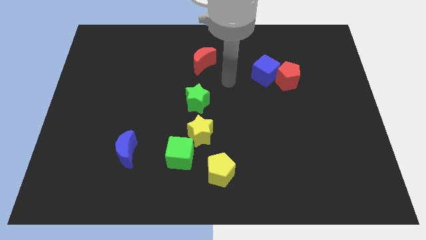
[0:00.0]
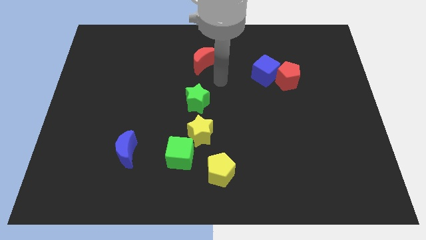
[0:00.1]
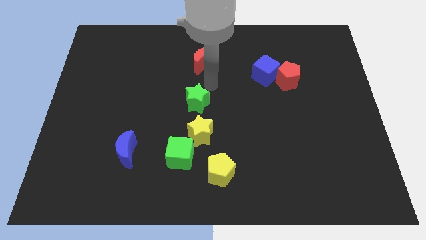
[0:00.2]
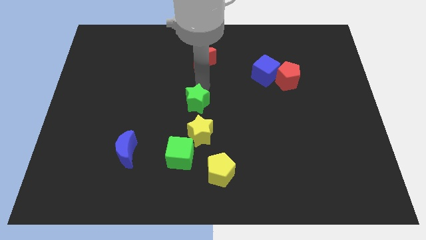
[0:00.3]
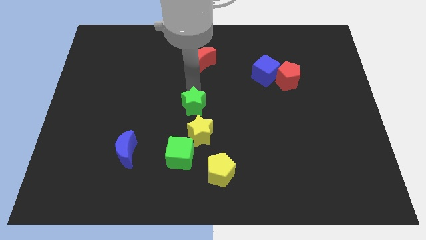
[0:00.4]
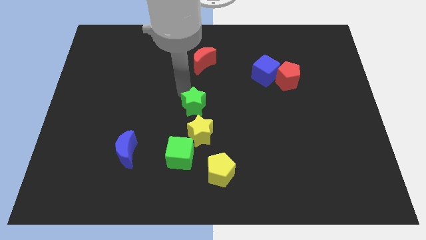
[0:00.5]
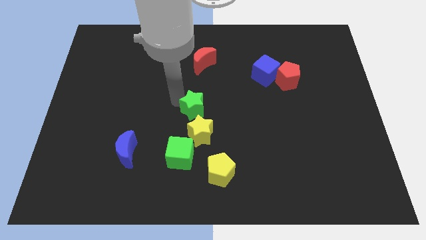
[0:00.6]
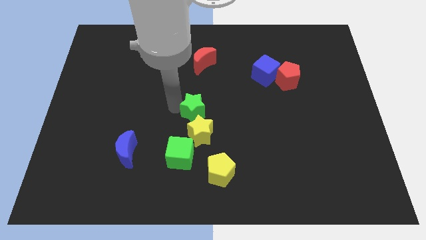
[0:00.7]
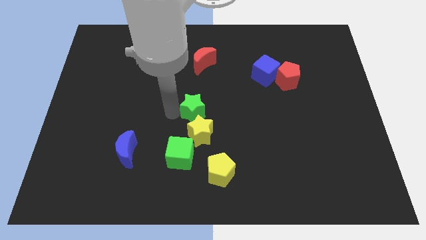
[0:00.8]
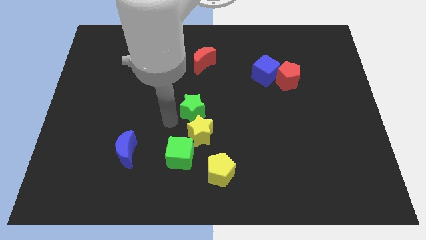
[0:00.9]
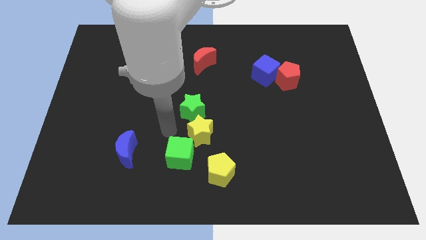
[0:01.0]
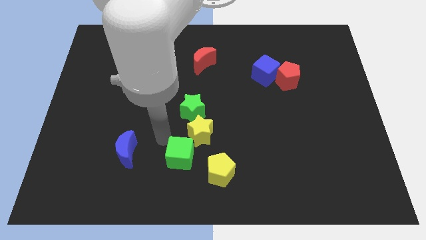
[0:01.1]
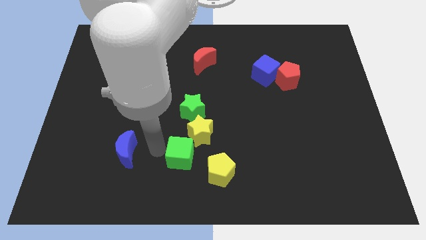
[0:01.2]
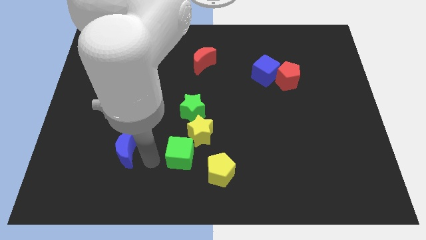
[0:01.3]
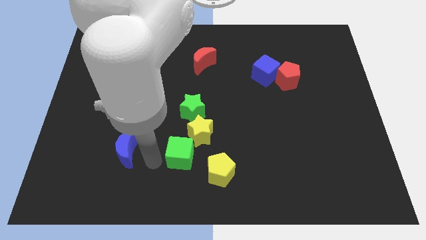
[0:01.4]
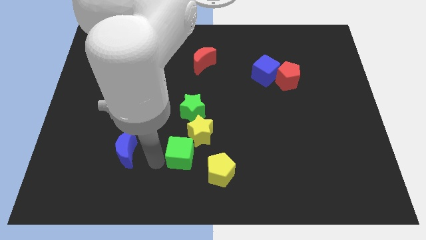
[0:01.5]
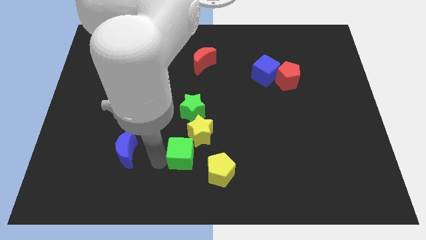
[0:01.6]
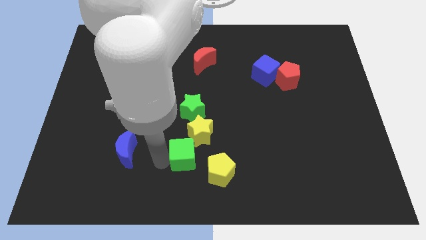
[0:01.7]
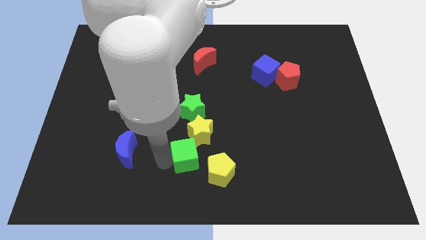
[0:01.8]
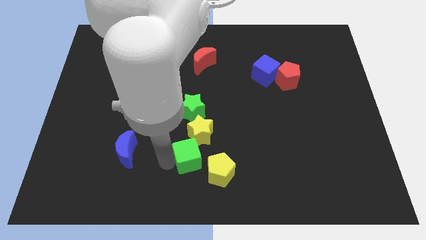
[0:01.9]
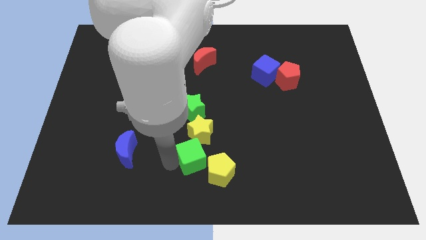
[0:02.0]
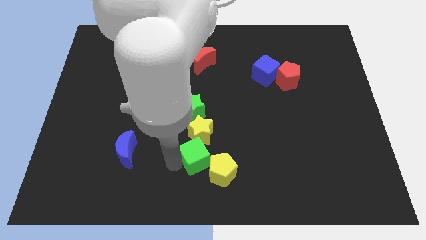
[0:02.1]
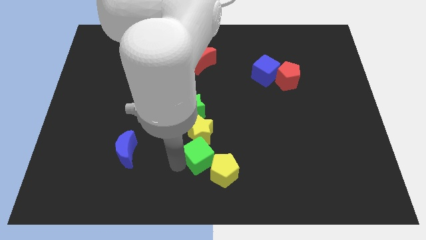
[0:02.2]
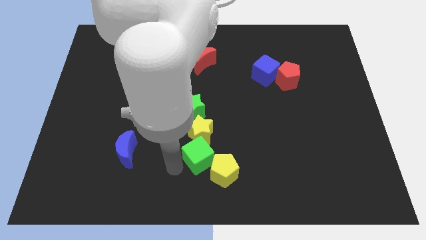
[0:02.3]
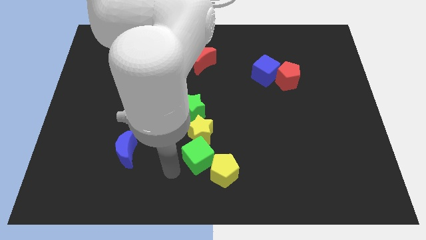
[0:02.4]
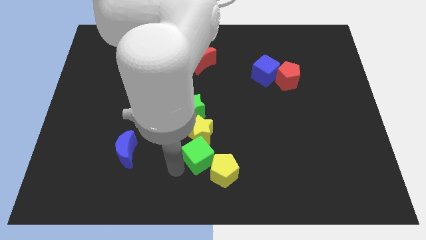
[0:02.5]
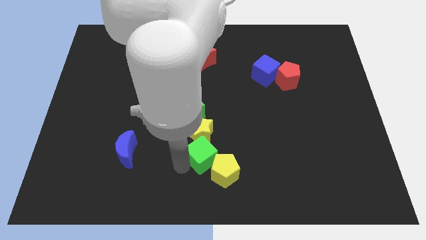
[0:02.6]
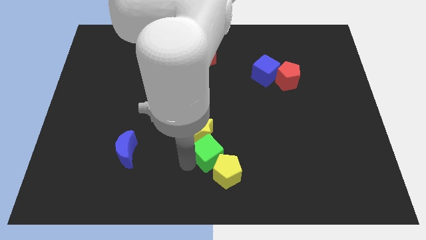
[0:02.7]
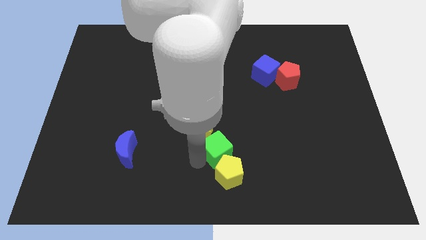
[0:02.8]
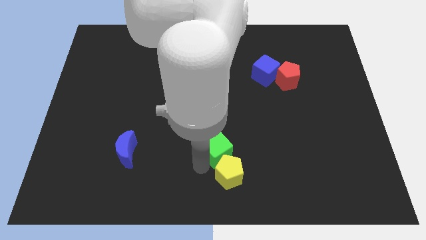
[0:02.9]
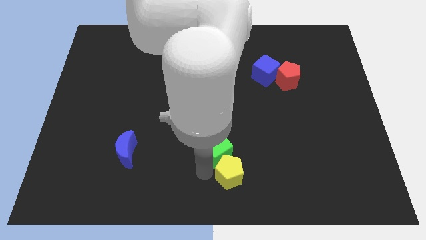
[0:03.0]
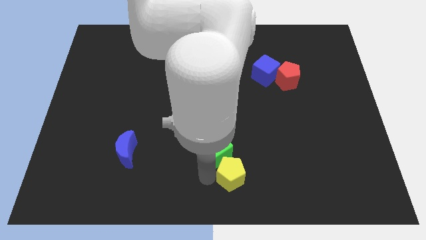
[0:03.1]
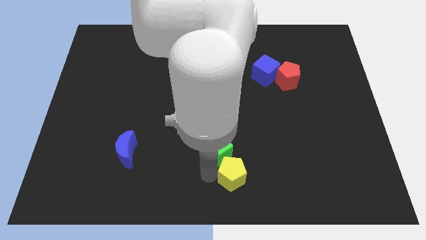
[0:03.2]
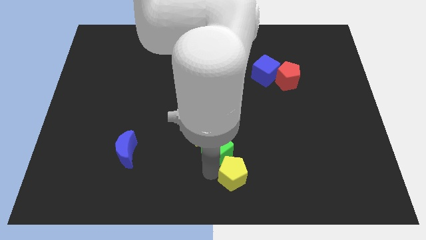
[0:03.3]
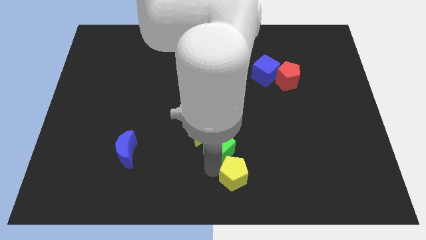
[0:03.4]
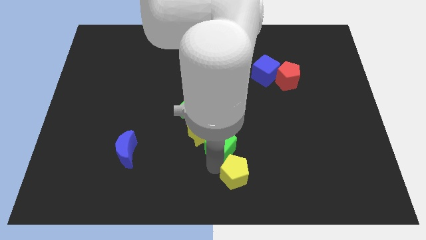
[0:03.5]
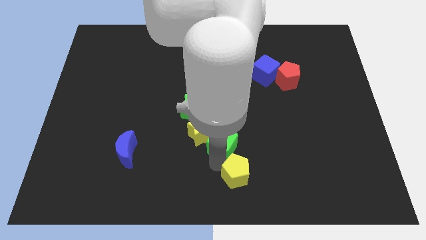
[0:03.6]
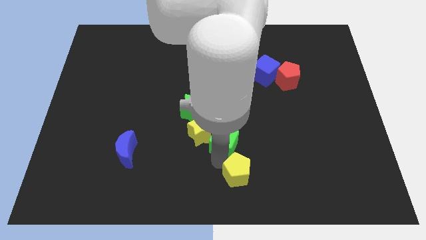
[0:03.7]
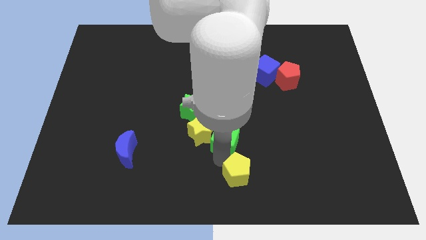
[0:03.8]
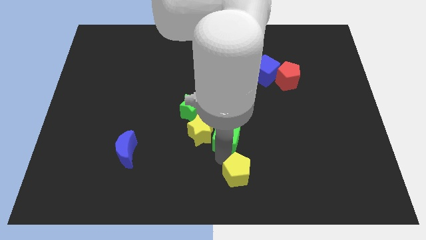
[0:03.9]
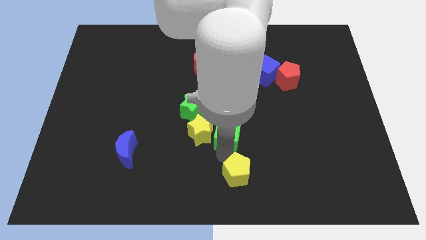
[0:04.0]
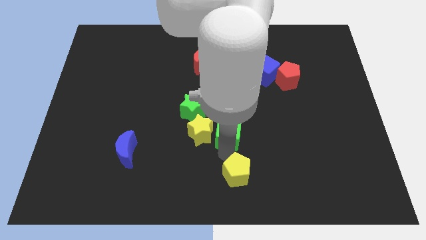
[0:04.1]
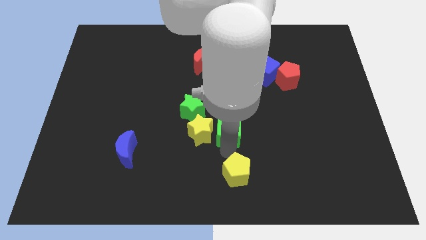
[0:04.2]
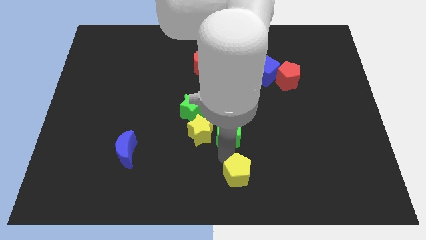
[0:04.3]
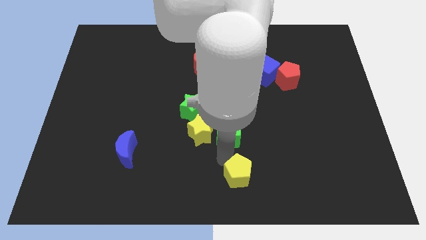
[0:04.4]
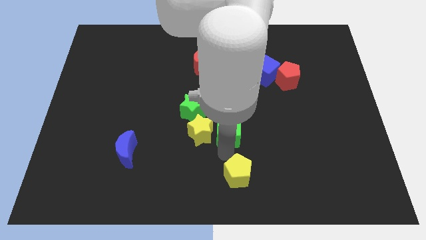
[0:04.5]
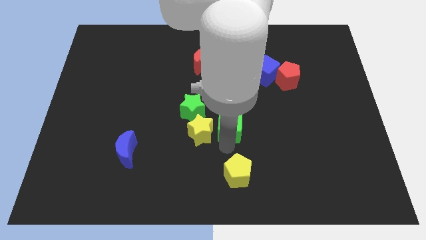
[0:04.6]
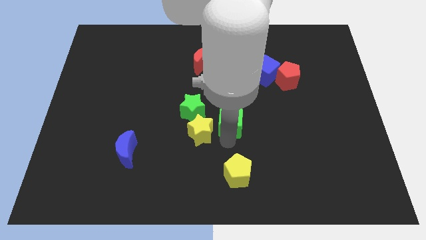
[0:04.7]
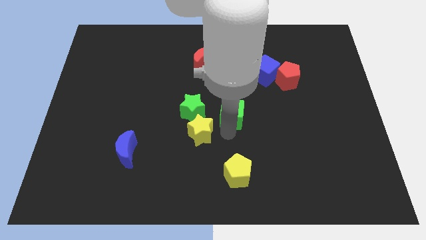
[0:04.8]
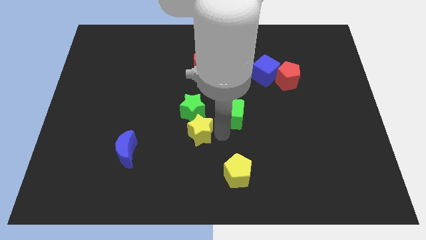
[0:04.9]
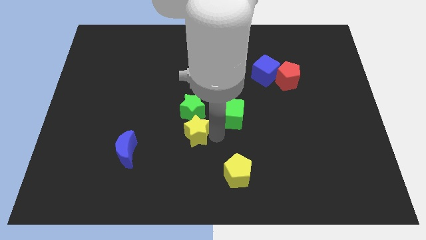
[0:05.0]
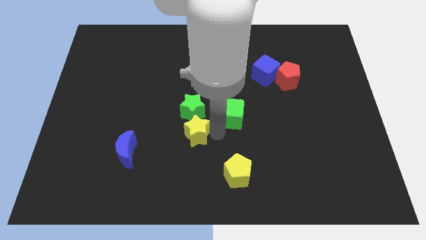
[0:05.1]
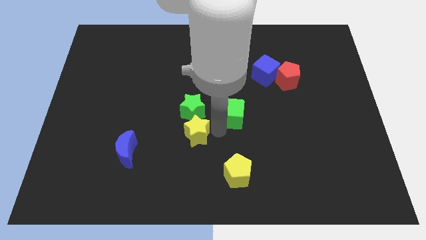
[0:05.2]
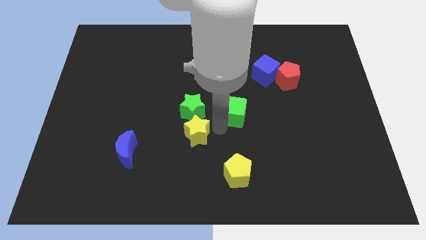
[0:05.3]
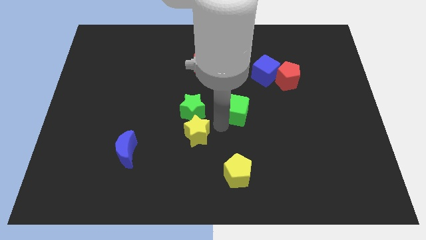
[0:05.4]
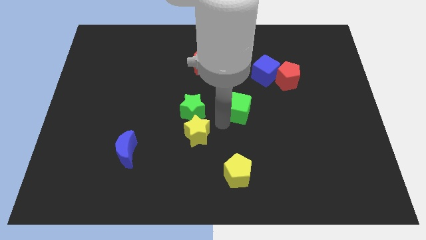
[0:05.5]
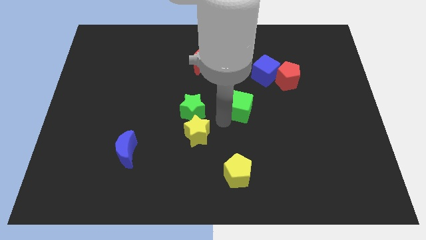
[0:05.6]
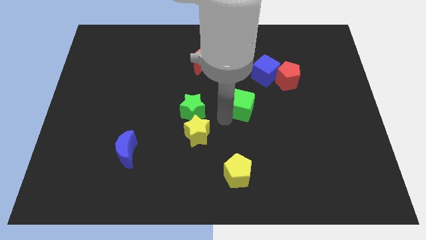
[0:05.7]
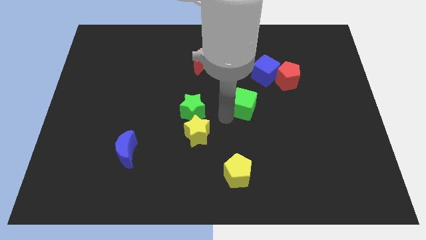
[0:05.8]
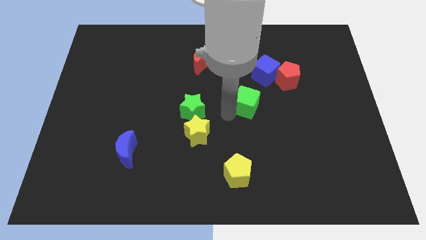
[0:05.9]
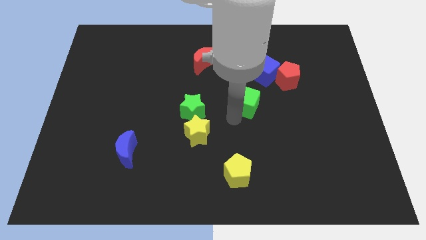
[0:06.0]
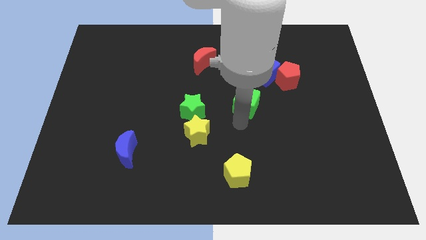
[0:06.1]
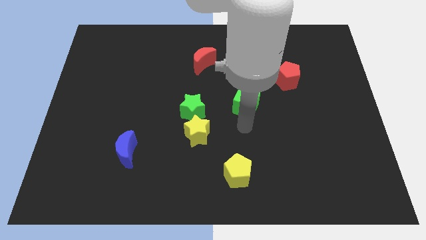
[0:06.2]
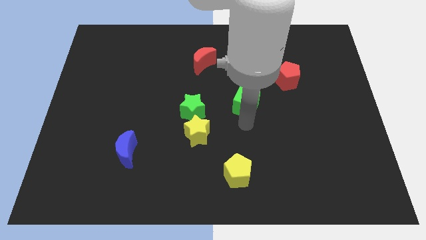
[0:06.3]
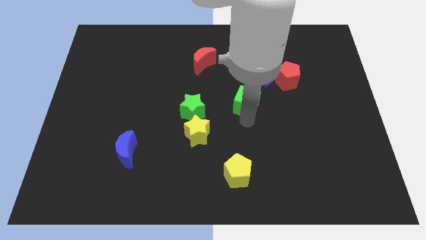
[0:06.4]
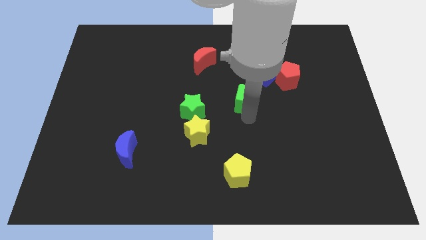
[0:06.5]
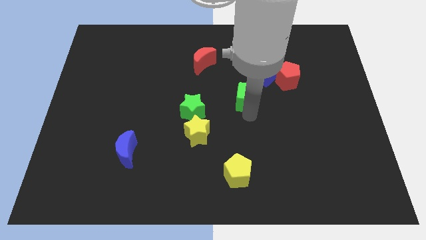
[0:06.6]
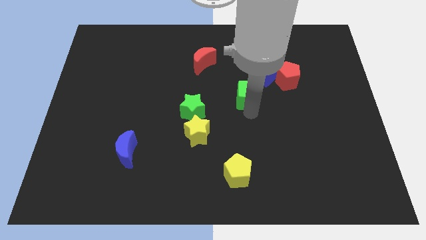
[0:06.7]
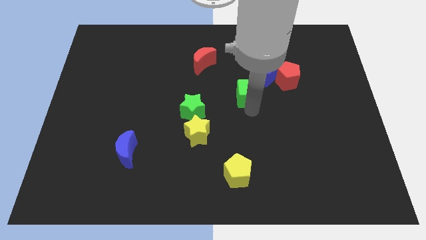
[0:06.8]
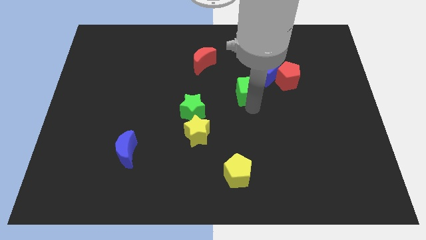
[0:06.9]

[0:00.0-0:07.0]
slide the green cube to the left side of the red pentagon

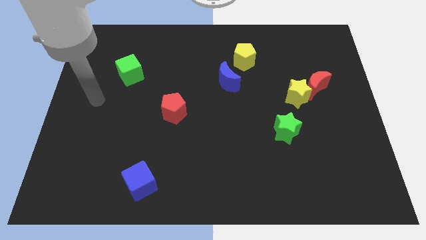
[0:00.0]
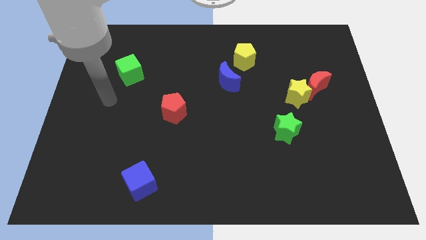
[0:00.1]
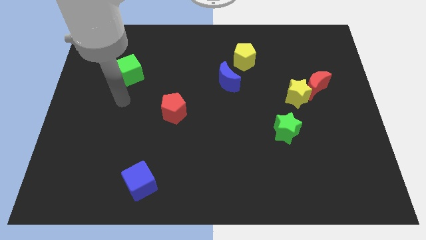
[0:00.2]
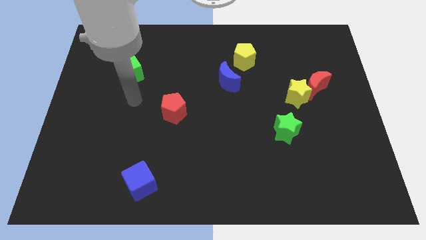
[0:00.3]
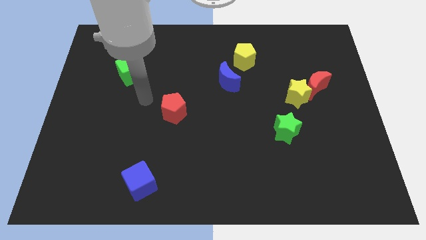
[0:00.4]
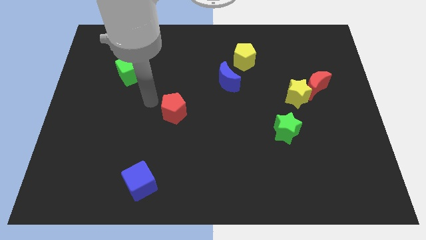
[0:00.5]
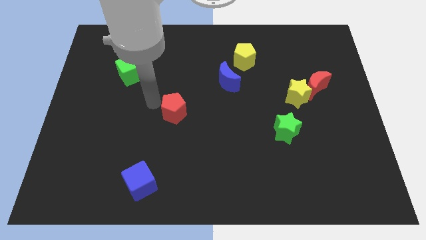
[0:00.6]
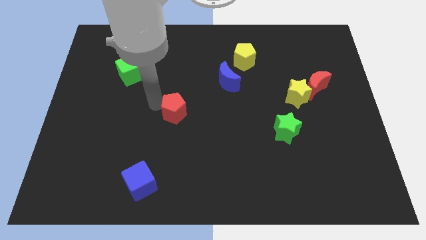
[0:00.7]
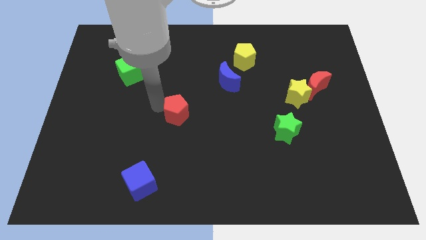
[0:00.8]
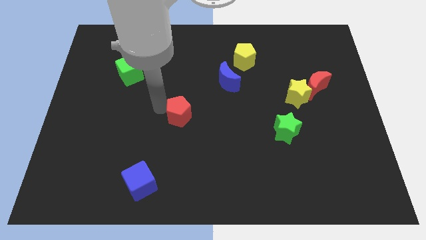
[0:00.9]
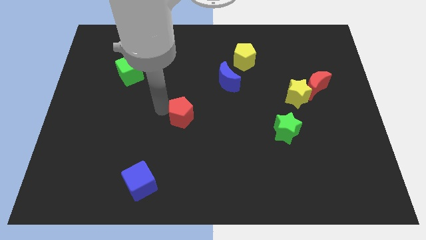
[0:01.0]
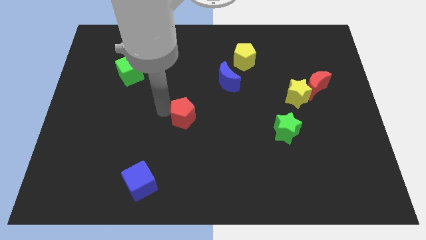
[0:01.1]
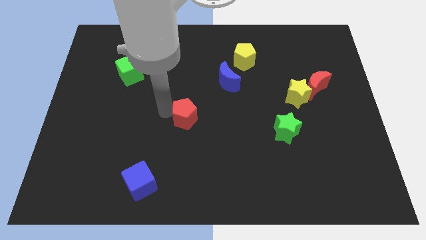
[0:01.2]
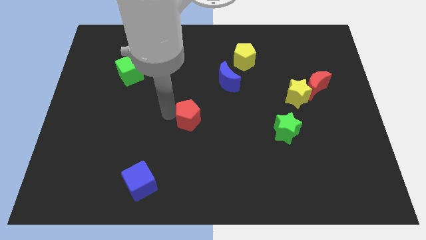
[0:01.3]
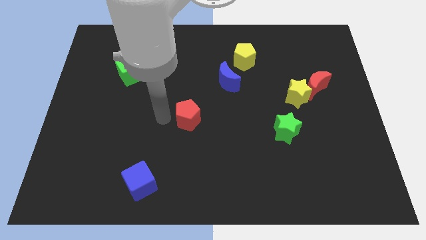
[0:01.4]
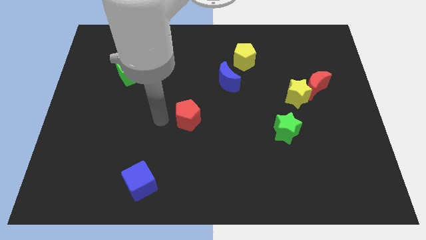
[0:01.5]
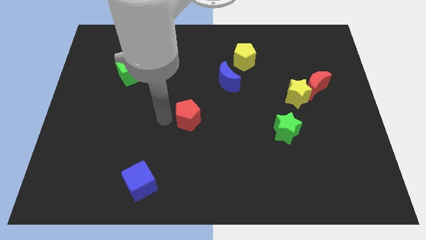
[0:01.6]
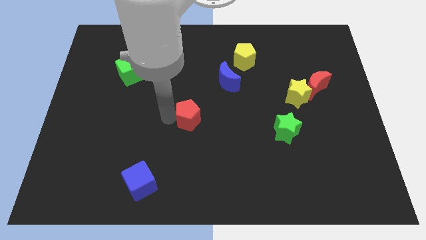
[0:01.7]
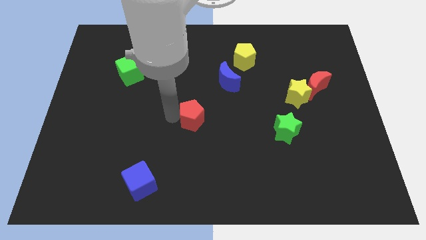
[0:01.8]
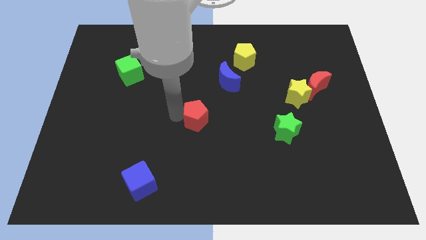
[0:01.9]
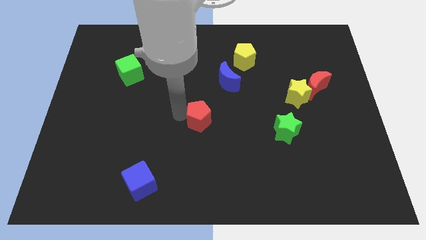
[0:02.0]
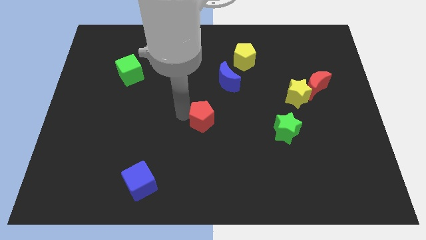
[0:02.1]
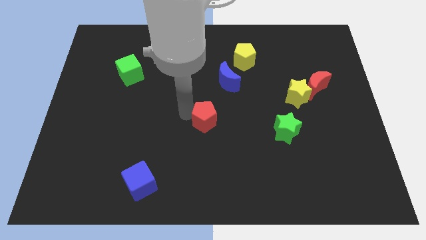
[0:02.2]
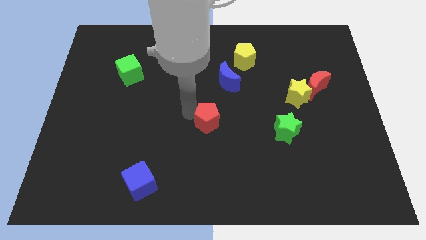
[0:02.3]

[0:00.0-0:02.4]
push the red pentagon to the bottom of the blue moon
